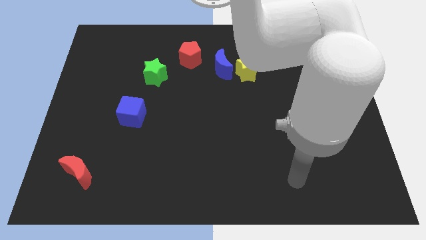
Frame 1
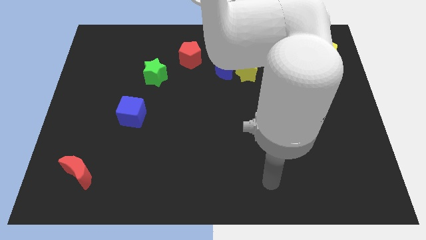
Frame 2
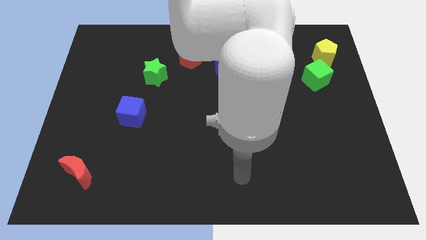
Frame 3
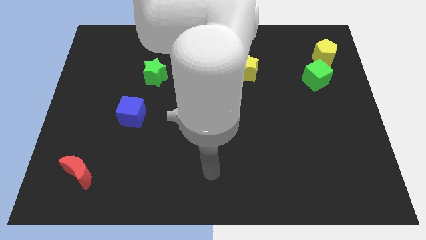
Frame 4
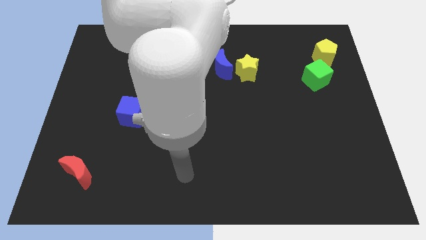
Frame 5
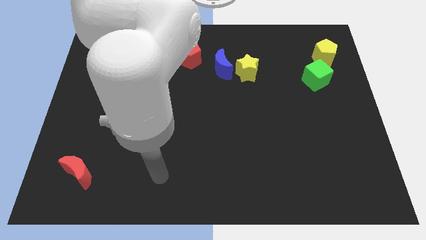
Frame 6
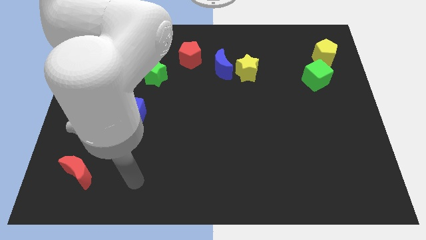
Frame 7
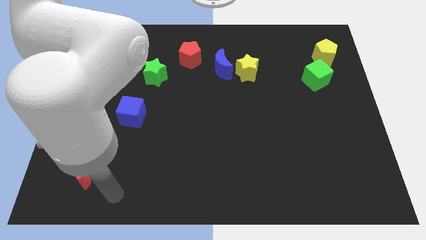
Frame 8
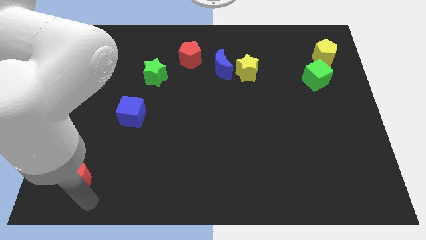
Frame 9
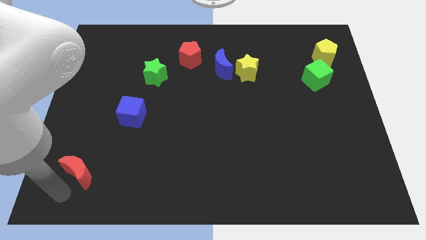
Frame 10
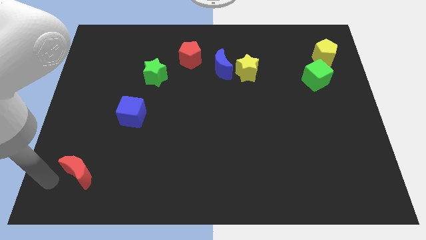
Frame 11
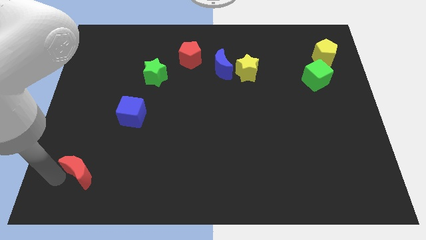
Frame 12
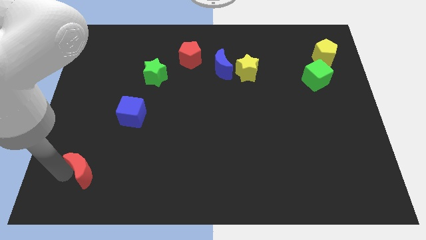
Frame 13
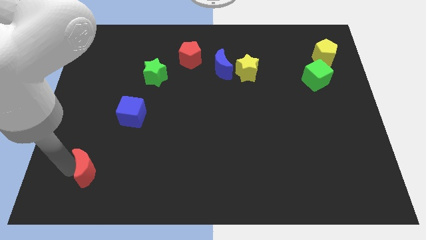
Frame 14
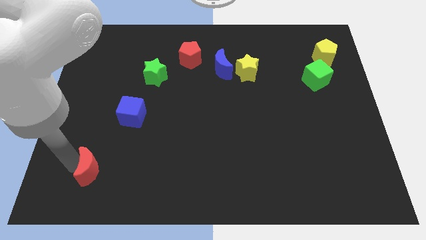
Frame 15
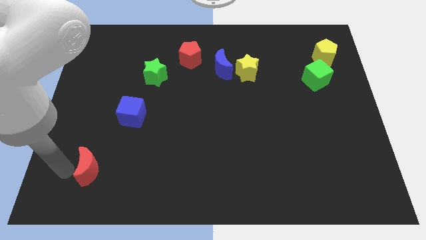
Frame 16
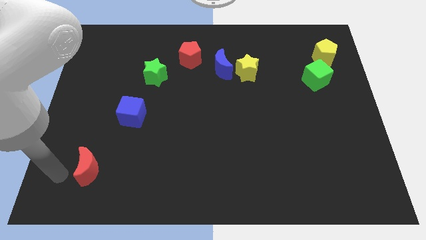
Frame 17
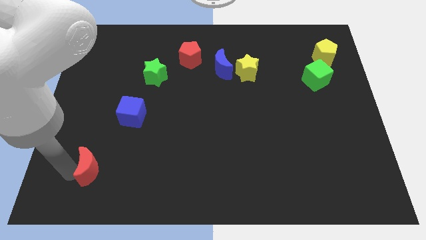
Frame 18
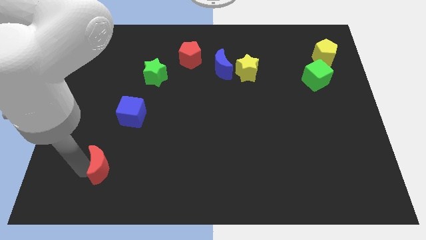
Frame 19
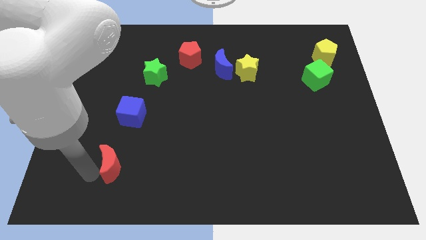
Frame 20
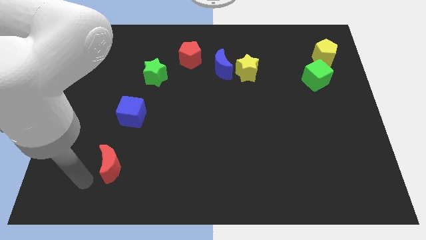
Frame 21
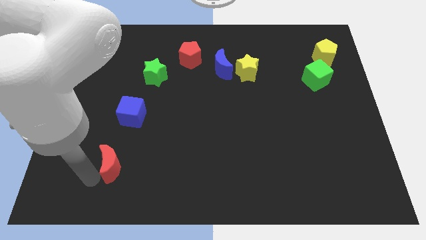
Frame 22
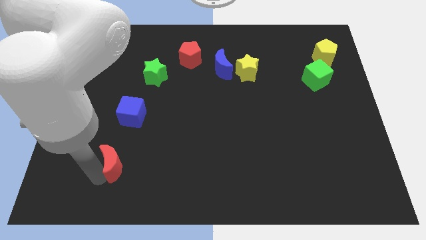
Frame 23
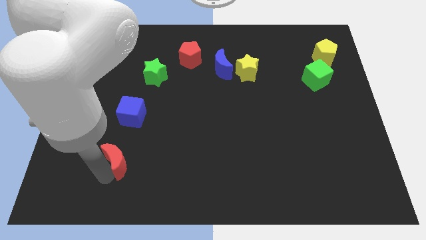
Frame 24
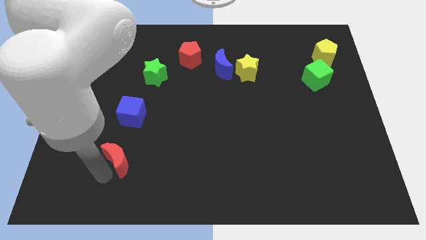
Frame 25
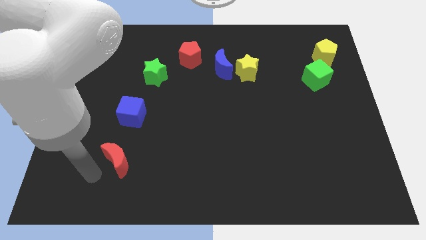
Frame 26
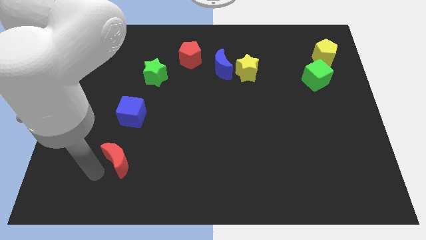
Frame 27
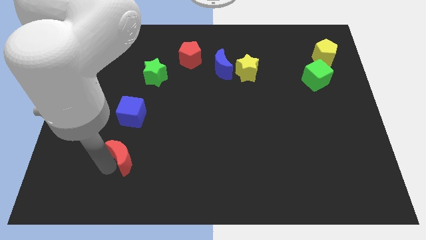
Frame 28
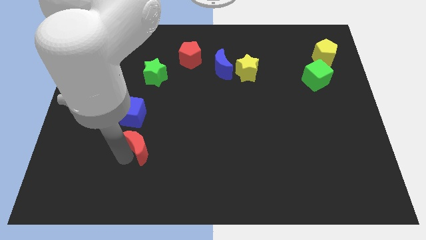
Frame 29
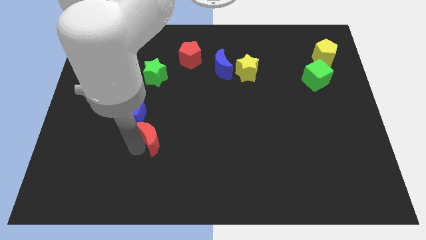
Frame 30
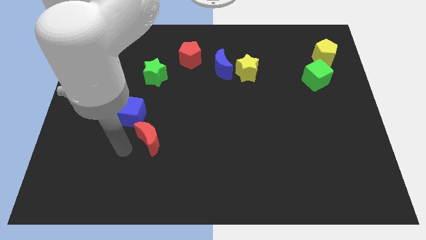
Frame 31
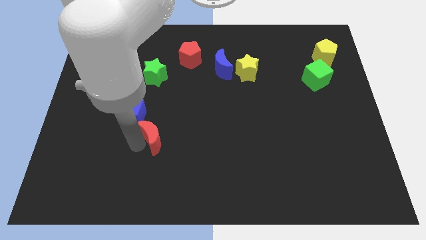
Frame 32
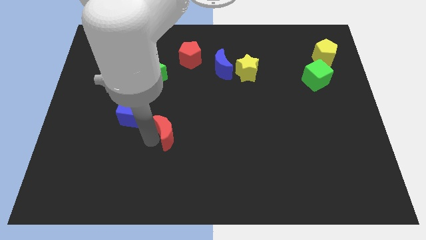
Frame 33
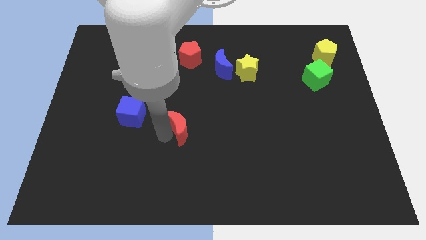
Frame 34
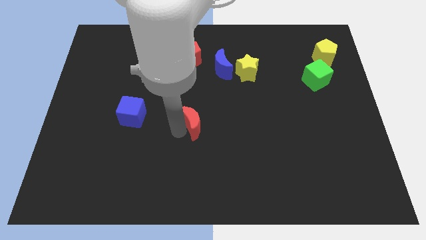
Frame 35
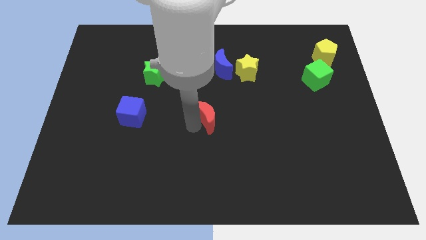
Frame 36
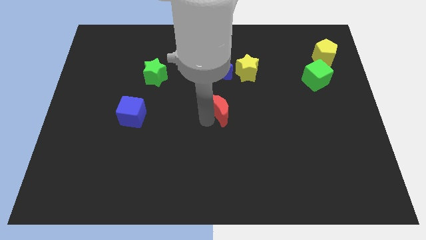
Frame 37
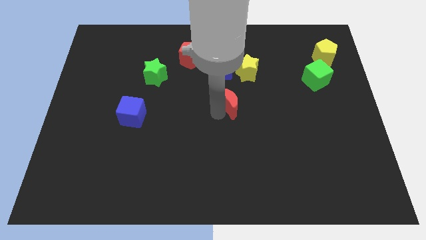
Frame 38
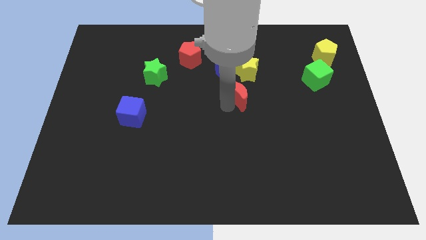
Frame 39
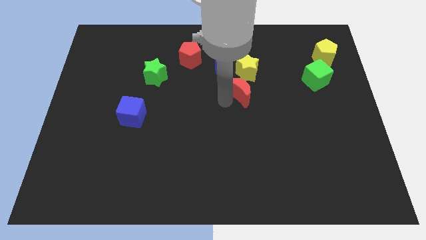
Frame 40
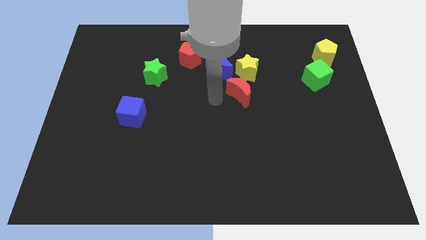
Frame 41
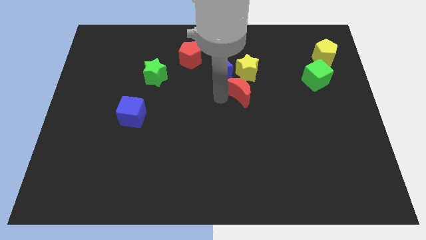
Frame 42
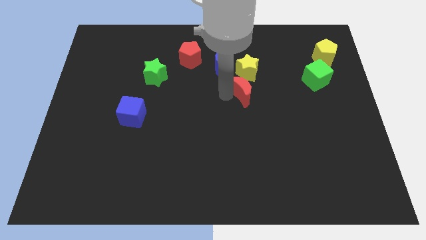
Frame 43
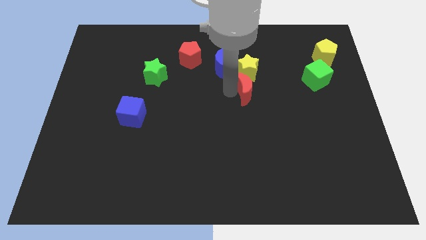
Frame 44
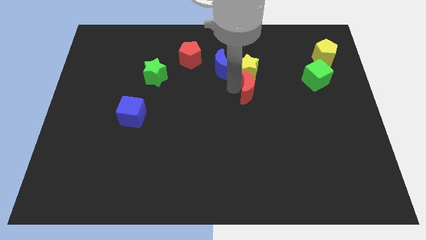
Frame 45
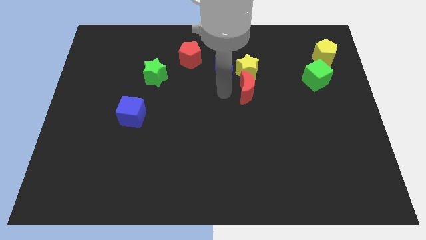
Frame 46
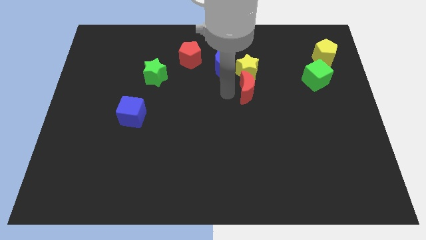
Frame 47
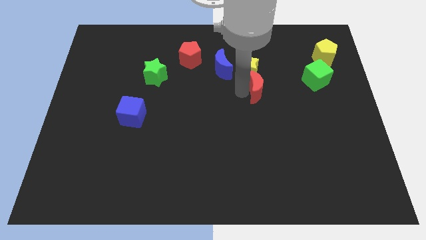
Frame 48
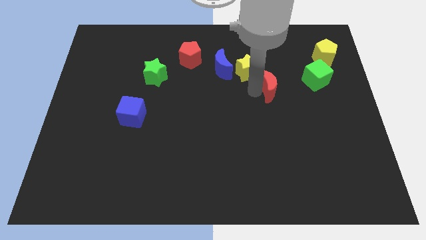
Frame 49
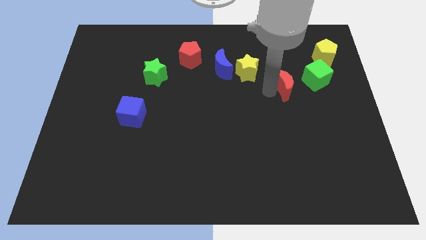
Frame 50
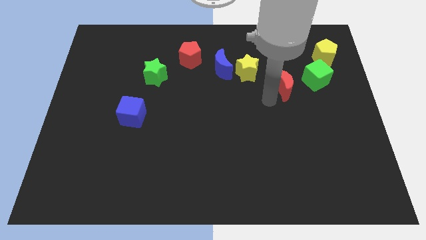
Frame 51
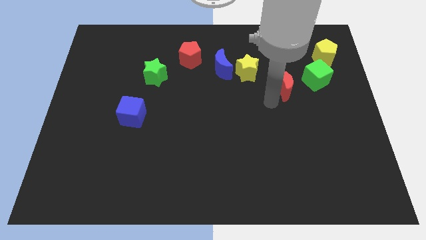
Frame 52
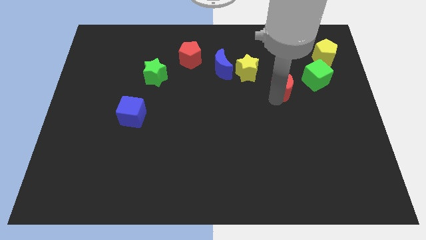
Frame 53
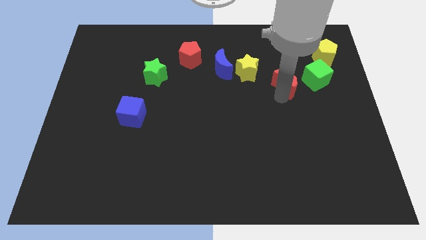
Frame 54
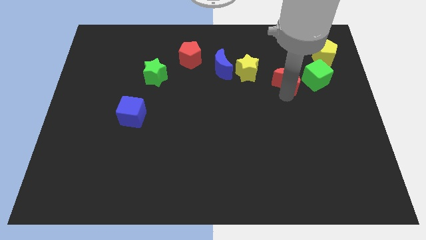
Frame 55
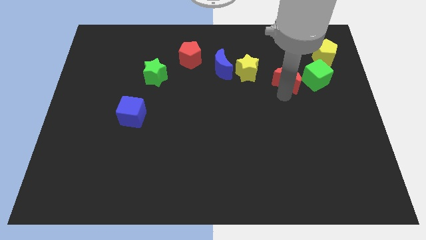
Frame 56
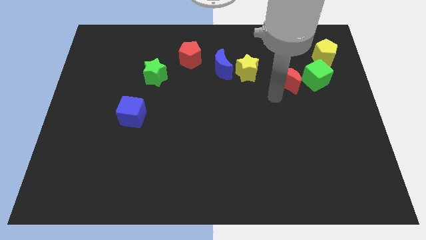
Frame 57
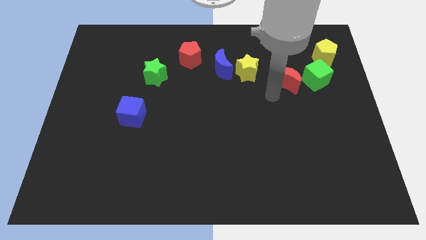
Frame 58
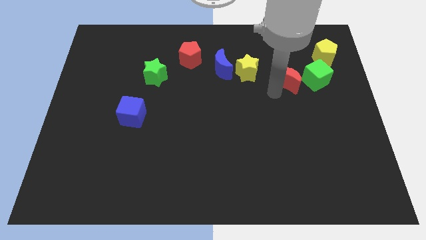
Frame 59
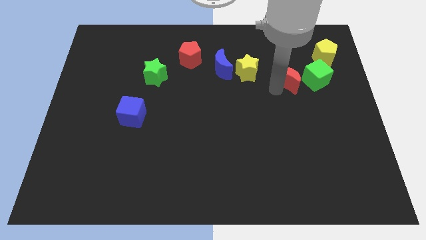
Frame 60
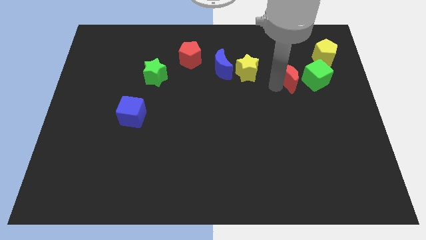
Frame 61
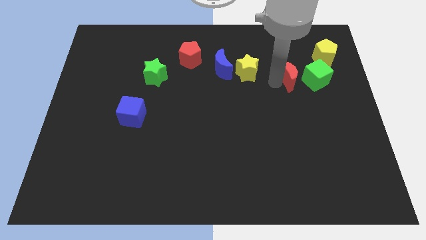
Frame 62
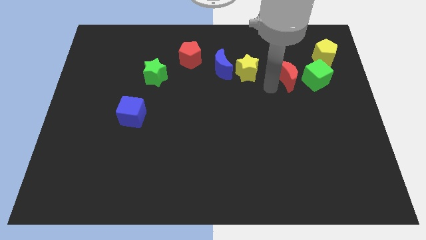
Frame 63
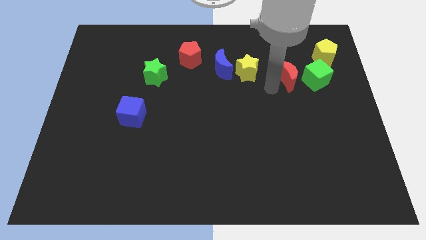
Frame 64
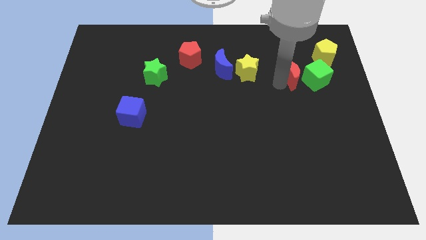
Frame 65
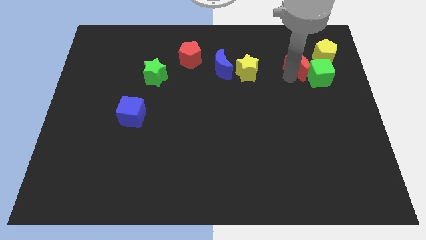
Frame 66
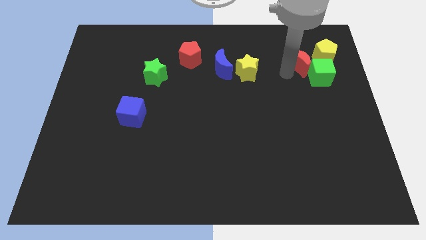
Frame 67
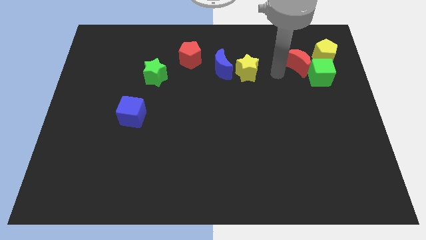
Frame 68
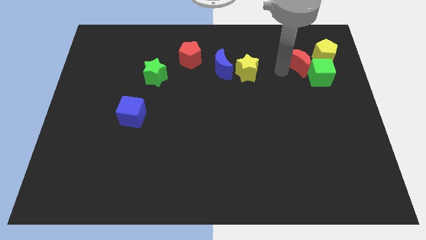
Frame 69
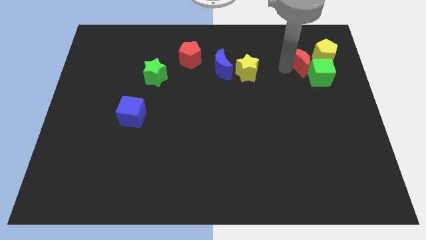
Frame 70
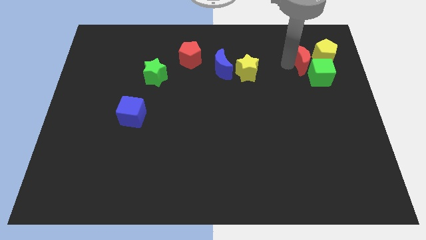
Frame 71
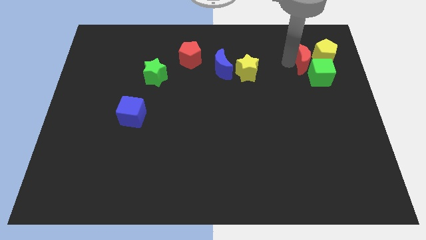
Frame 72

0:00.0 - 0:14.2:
put the red moon to the yellow pentagon
